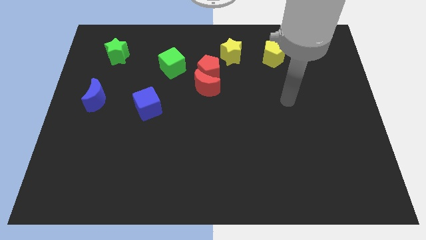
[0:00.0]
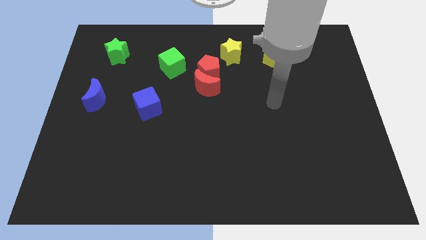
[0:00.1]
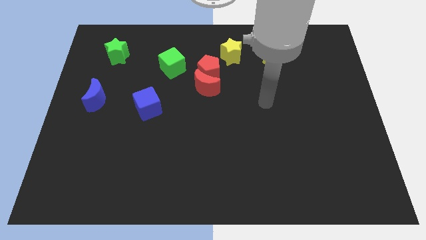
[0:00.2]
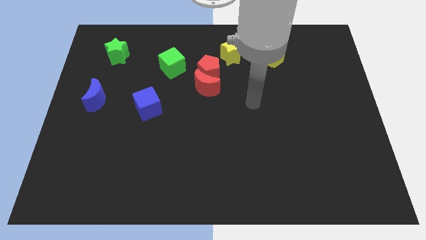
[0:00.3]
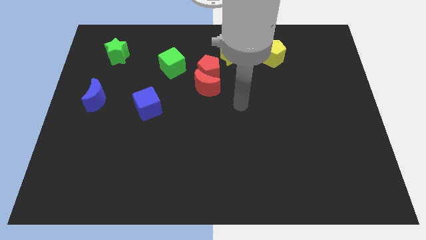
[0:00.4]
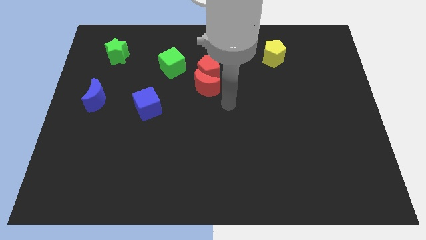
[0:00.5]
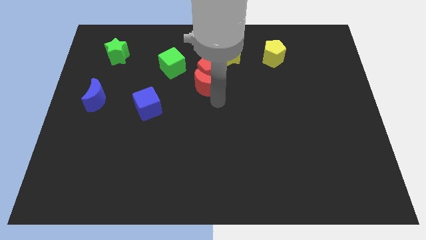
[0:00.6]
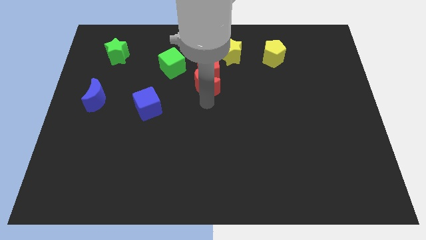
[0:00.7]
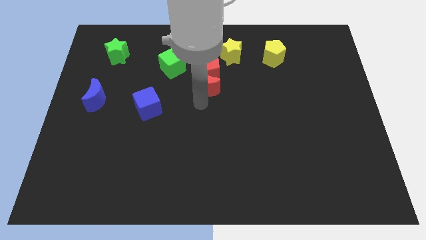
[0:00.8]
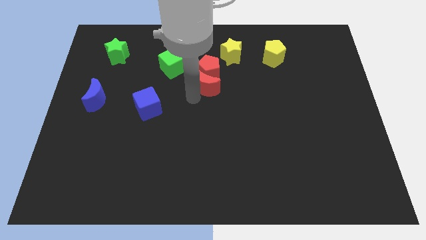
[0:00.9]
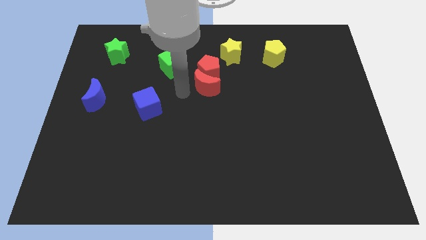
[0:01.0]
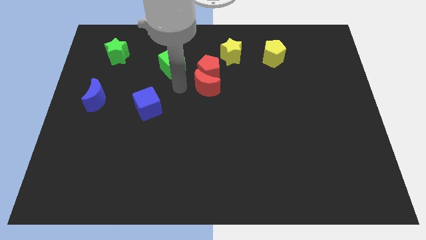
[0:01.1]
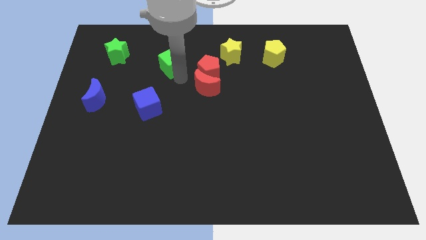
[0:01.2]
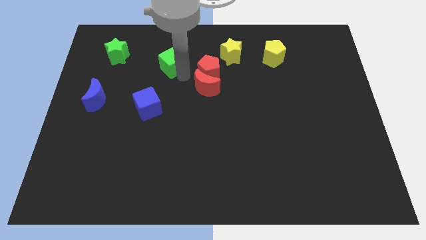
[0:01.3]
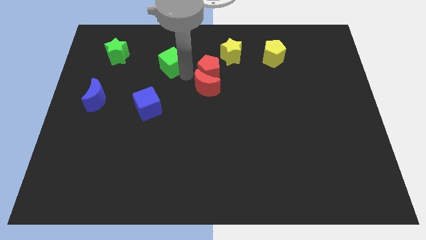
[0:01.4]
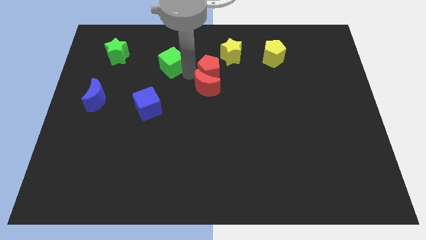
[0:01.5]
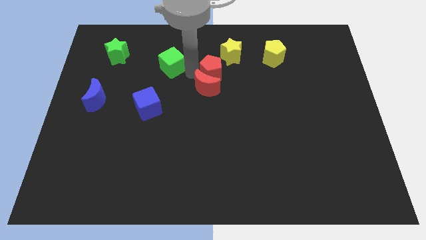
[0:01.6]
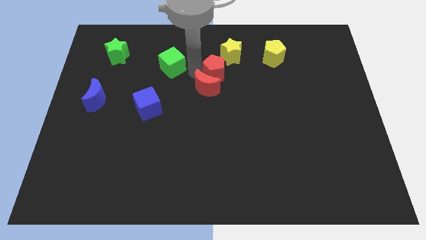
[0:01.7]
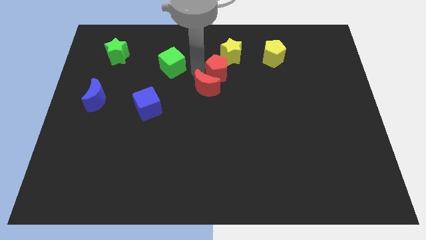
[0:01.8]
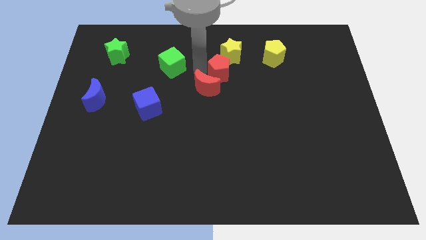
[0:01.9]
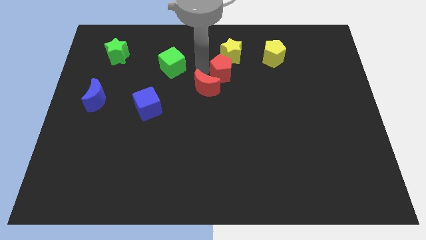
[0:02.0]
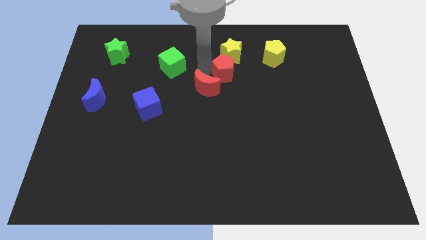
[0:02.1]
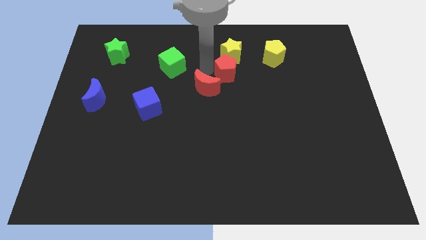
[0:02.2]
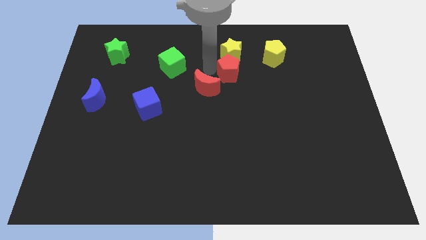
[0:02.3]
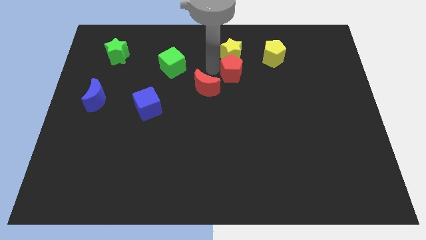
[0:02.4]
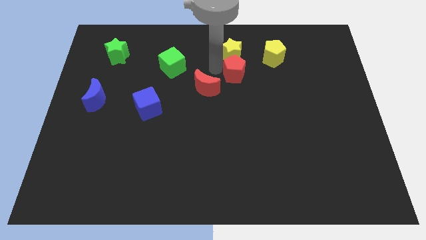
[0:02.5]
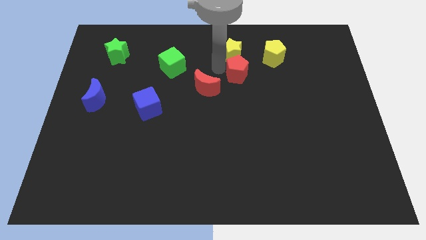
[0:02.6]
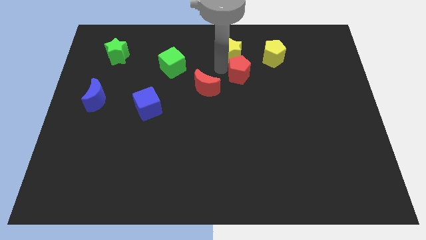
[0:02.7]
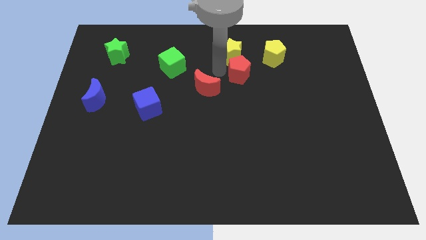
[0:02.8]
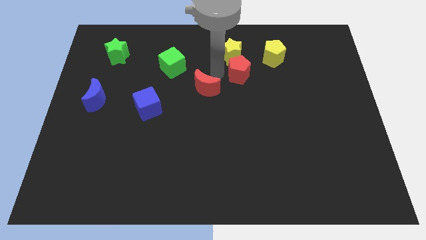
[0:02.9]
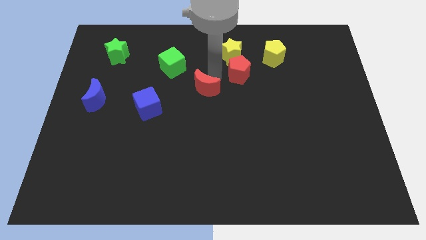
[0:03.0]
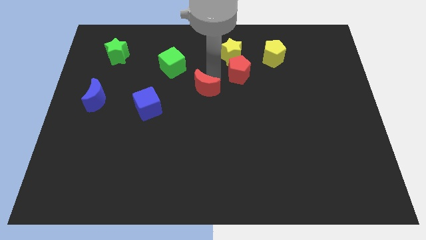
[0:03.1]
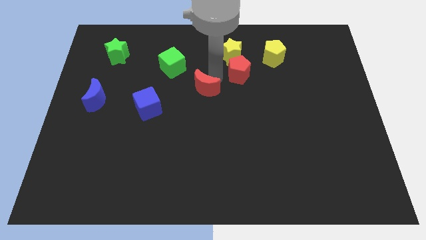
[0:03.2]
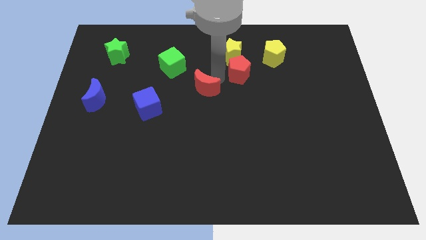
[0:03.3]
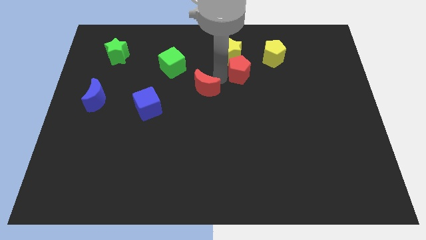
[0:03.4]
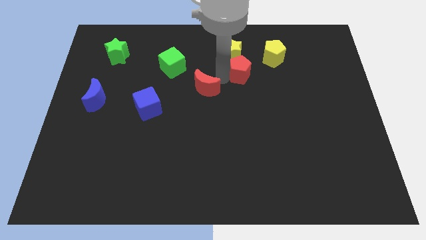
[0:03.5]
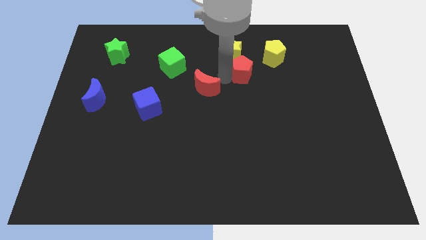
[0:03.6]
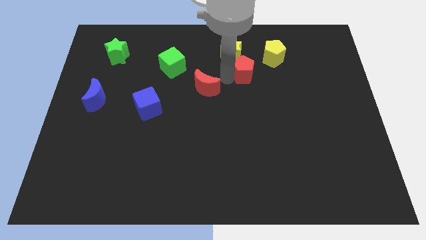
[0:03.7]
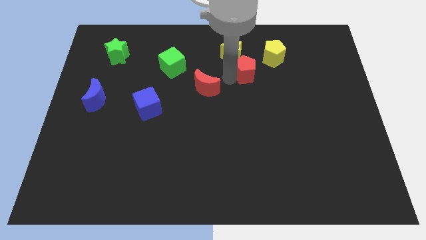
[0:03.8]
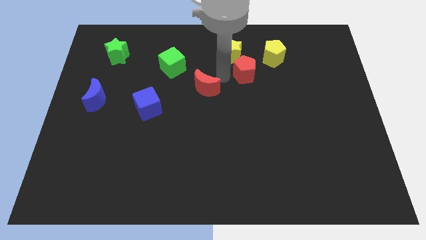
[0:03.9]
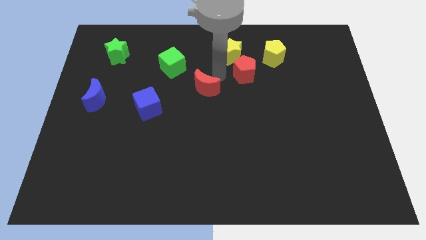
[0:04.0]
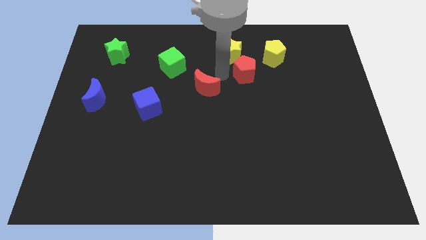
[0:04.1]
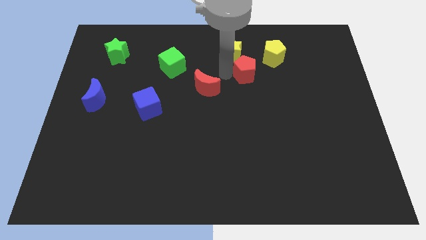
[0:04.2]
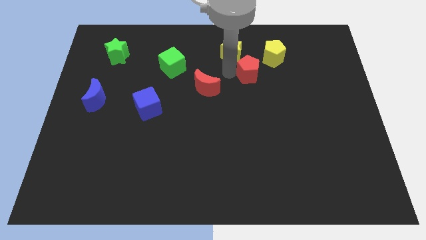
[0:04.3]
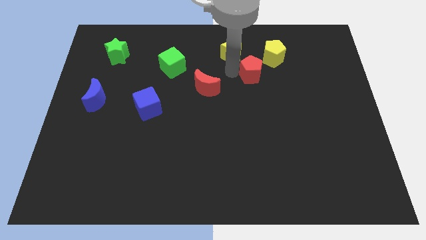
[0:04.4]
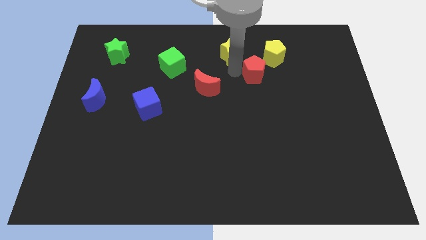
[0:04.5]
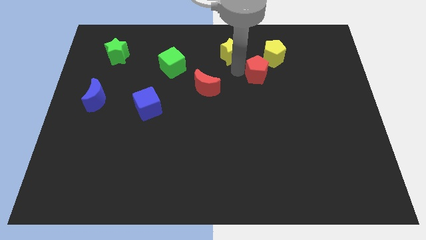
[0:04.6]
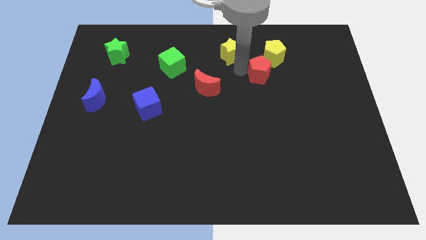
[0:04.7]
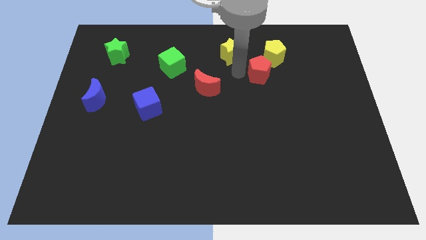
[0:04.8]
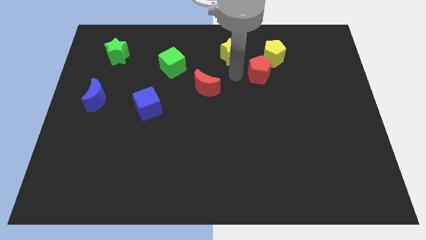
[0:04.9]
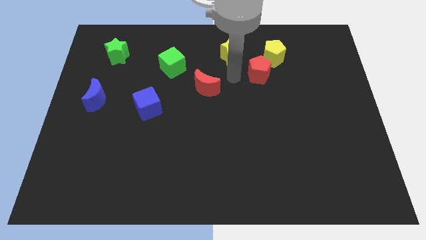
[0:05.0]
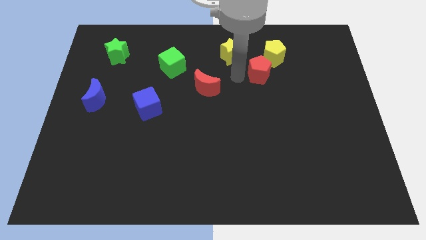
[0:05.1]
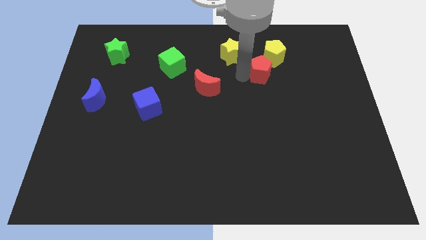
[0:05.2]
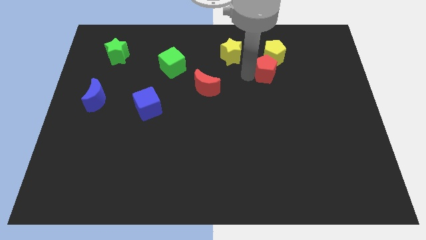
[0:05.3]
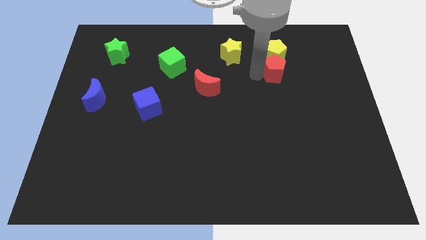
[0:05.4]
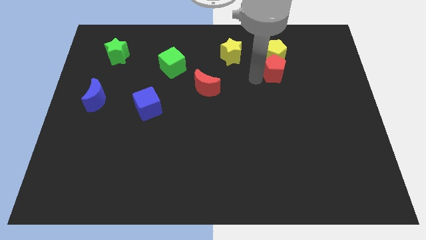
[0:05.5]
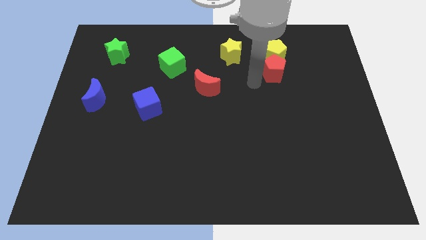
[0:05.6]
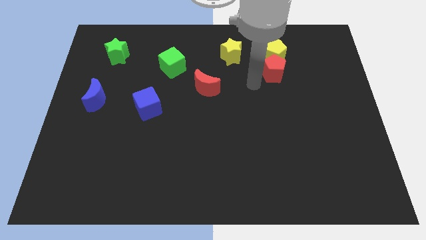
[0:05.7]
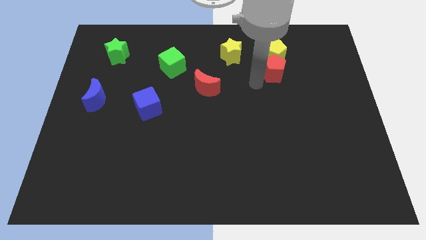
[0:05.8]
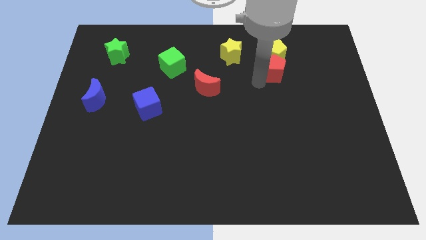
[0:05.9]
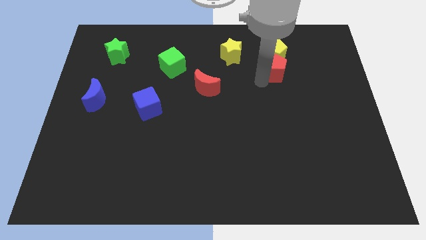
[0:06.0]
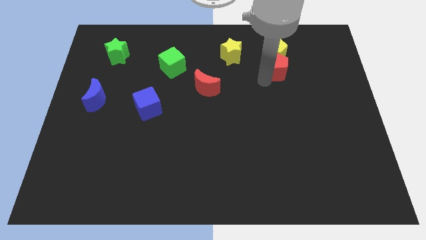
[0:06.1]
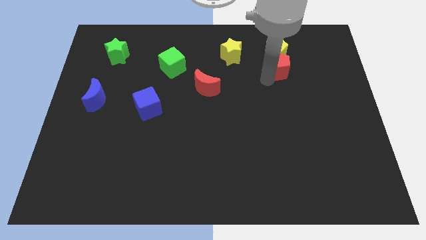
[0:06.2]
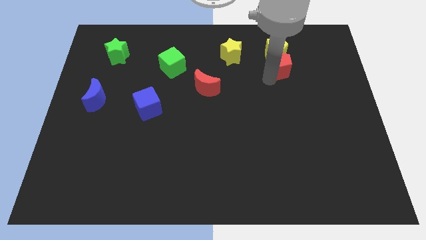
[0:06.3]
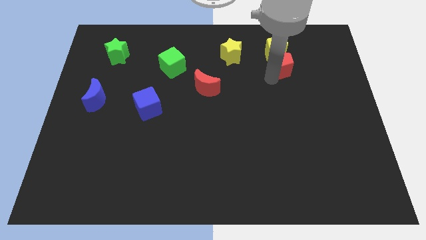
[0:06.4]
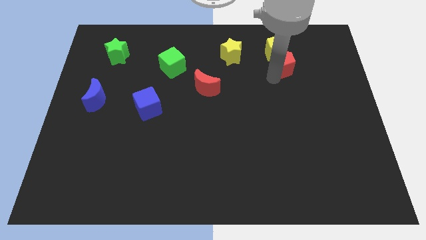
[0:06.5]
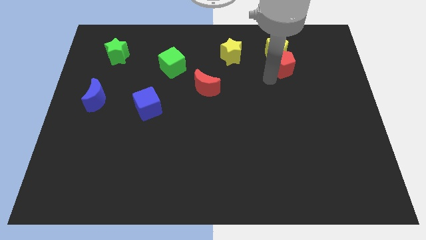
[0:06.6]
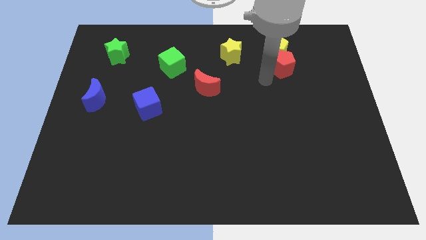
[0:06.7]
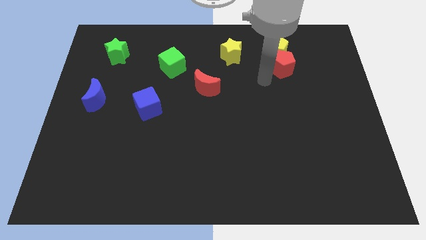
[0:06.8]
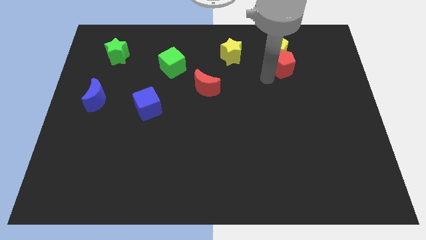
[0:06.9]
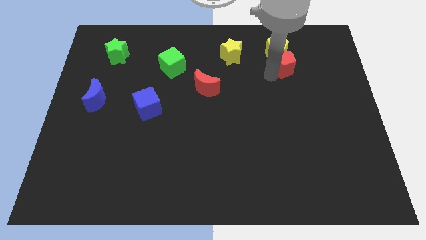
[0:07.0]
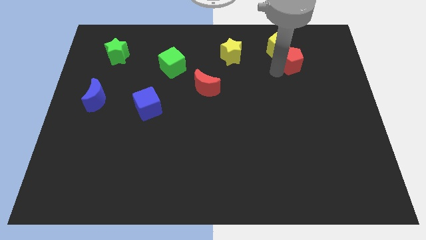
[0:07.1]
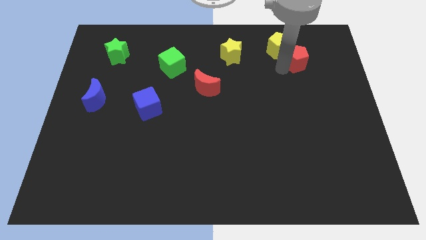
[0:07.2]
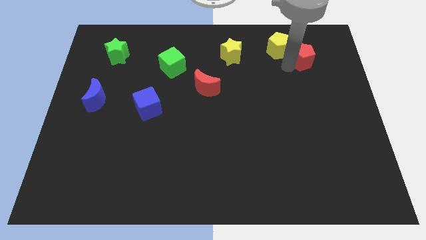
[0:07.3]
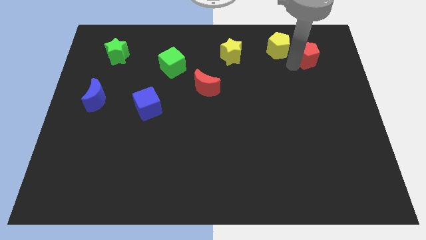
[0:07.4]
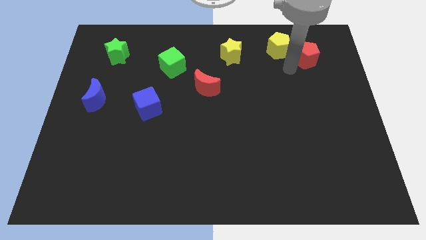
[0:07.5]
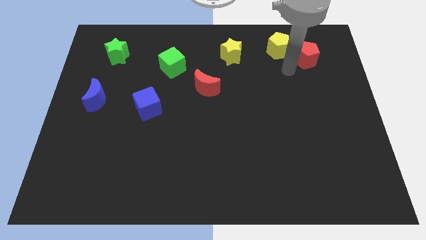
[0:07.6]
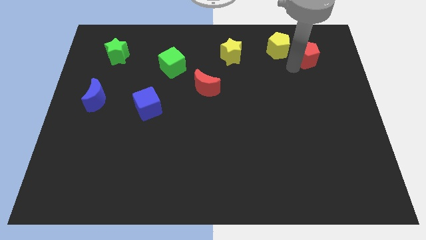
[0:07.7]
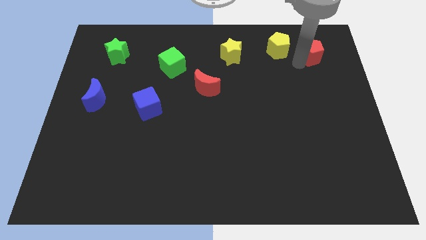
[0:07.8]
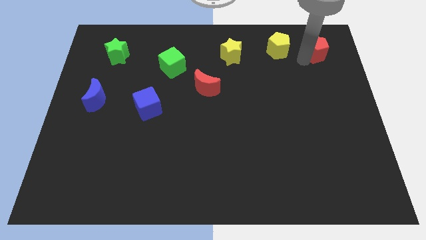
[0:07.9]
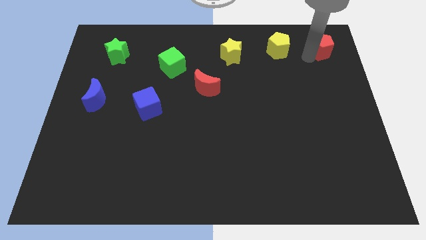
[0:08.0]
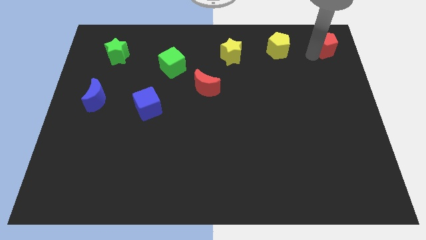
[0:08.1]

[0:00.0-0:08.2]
push the red pentagon to the upper right corner
